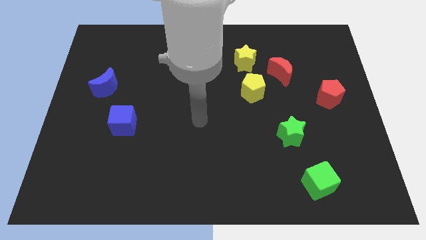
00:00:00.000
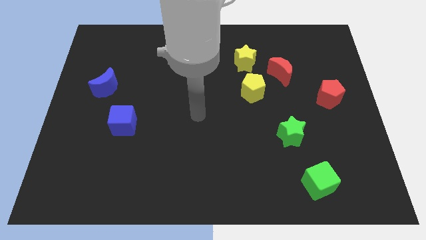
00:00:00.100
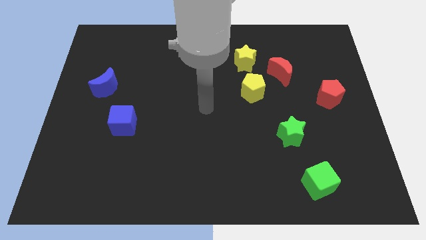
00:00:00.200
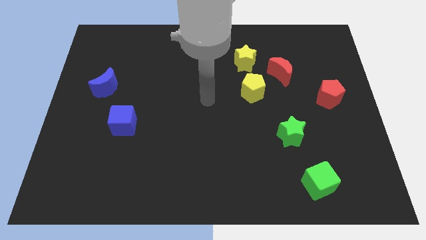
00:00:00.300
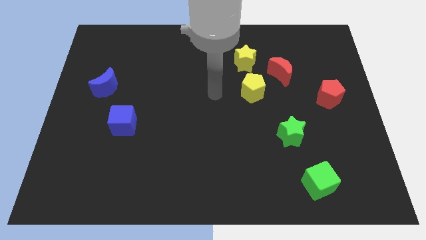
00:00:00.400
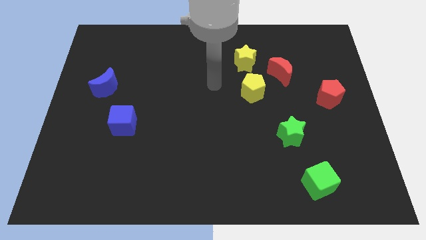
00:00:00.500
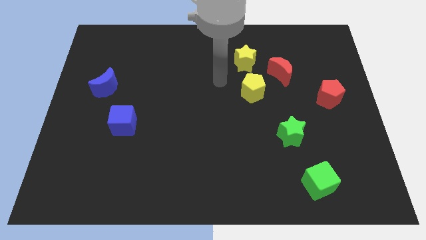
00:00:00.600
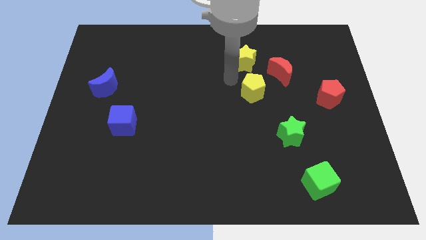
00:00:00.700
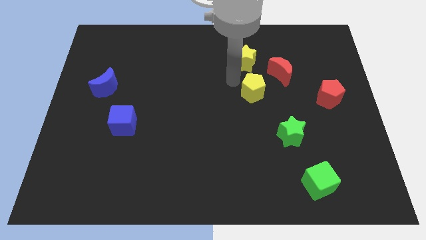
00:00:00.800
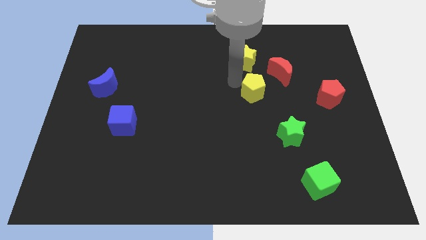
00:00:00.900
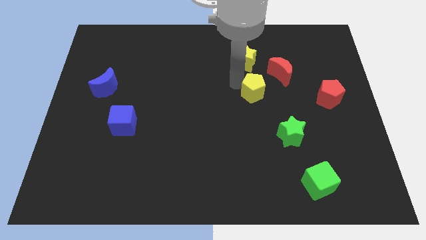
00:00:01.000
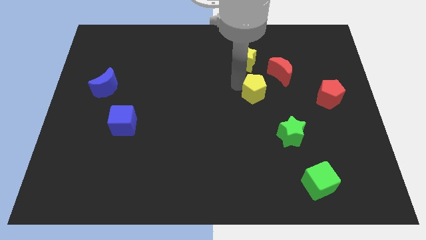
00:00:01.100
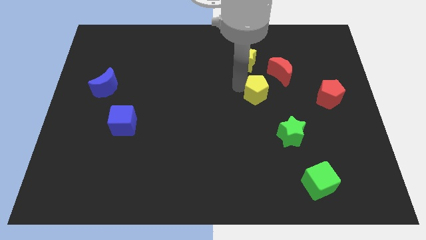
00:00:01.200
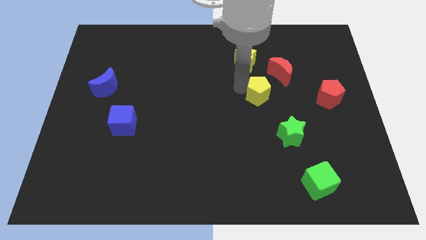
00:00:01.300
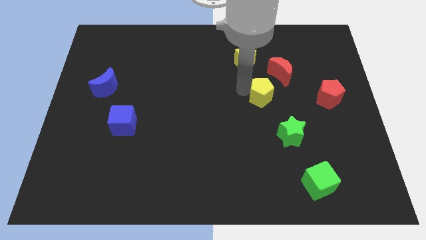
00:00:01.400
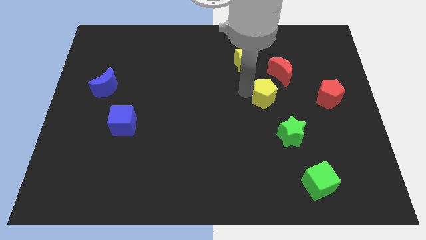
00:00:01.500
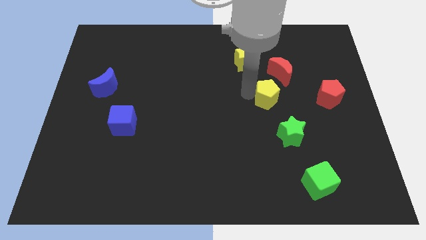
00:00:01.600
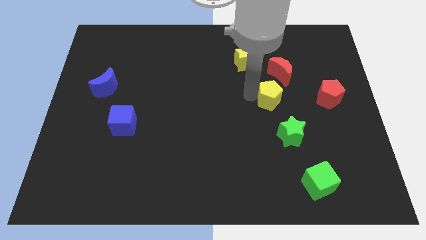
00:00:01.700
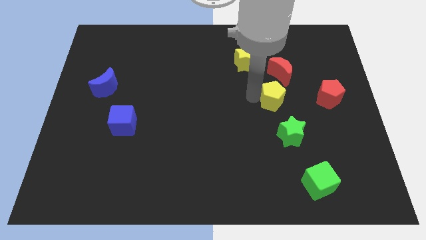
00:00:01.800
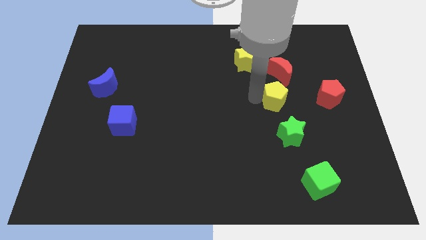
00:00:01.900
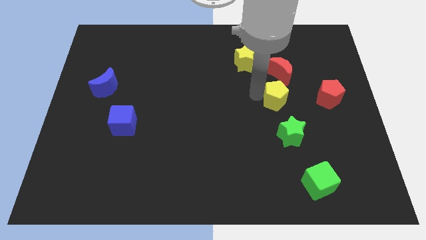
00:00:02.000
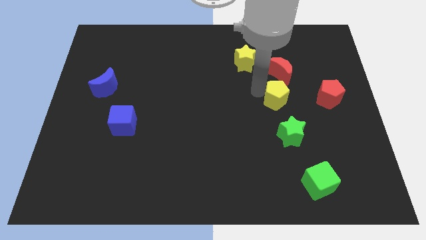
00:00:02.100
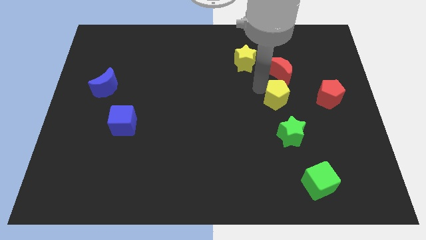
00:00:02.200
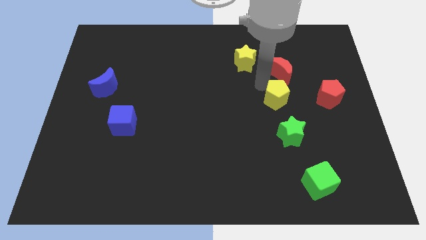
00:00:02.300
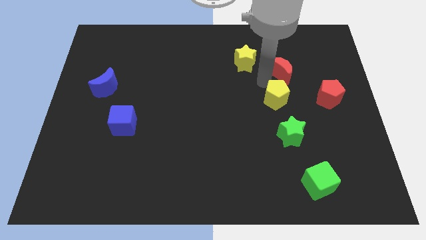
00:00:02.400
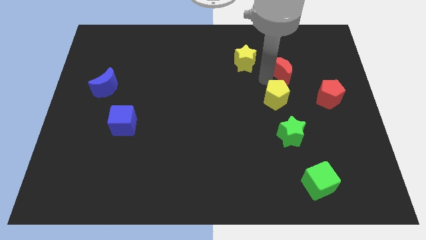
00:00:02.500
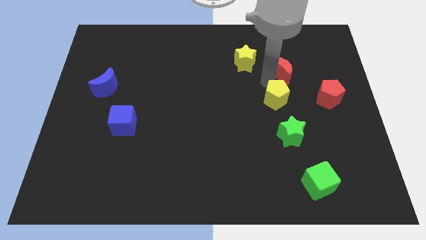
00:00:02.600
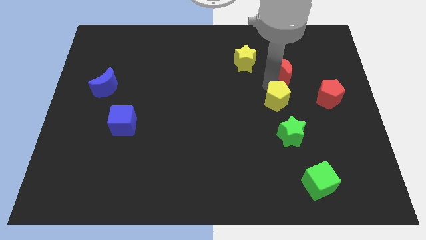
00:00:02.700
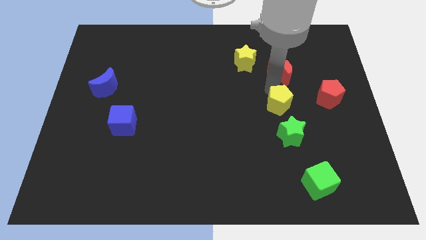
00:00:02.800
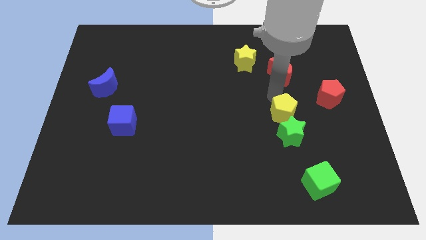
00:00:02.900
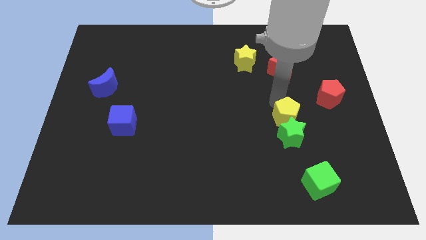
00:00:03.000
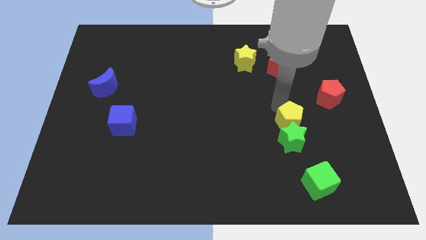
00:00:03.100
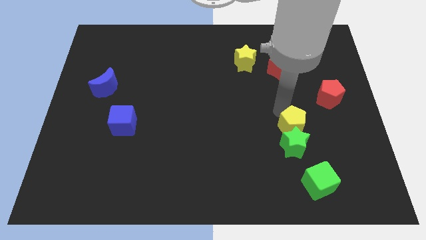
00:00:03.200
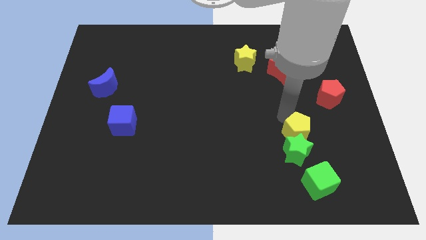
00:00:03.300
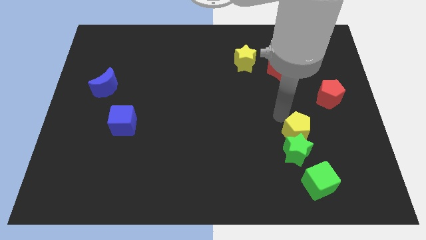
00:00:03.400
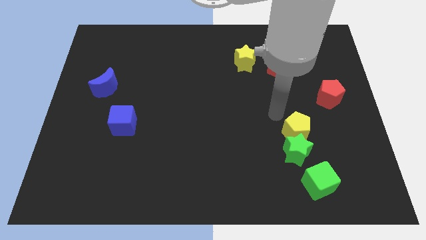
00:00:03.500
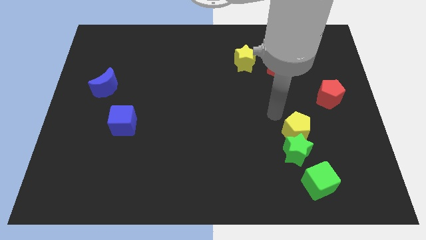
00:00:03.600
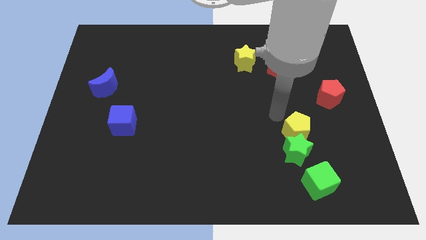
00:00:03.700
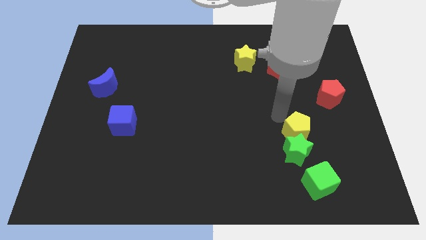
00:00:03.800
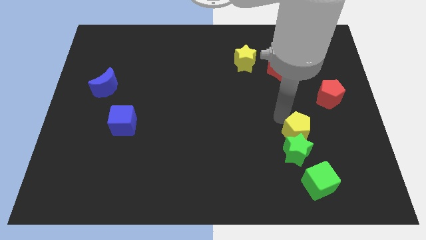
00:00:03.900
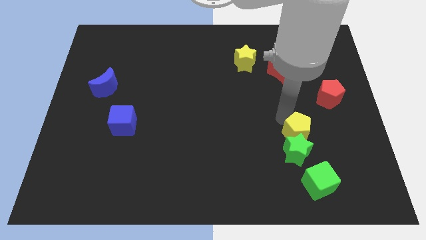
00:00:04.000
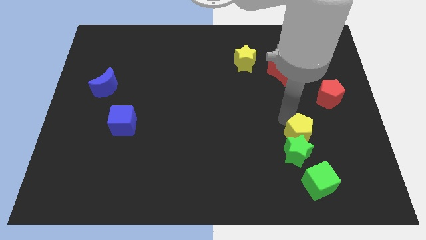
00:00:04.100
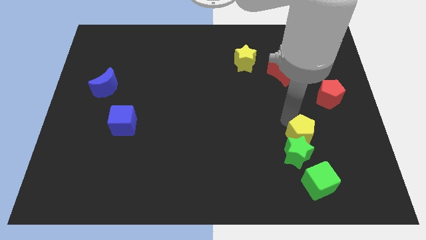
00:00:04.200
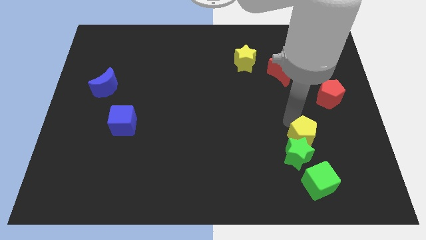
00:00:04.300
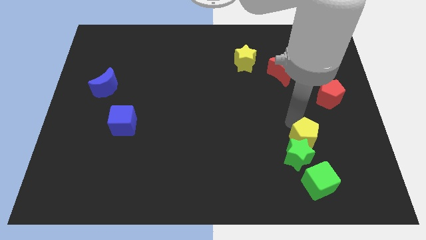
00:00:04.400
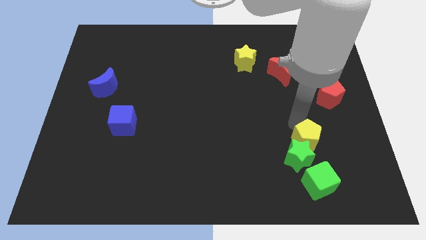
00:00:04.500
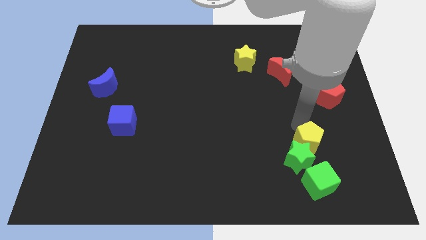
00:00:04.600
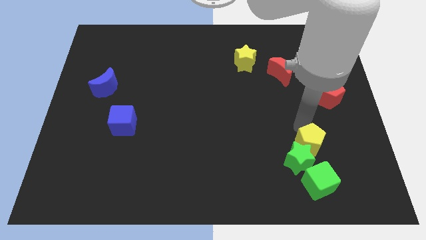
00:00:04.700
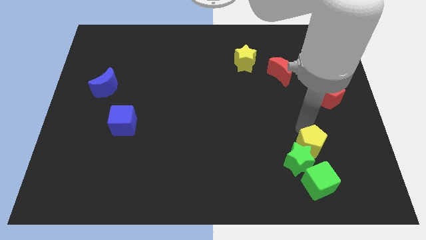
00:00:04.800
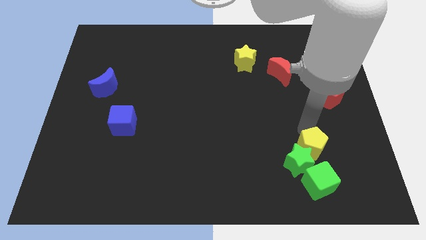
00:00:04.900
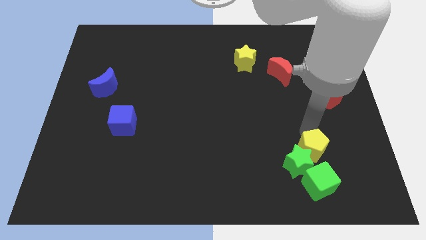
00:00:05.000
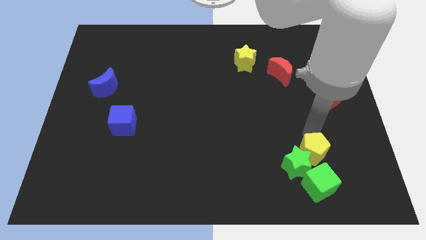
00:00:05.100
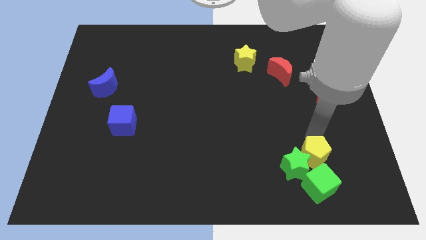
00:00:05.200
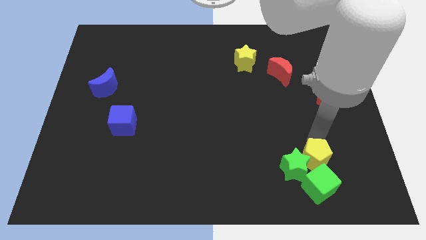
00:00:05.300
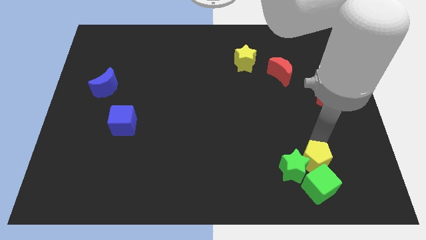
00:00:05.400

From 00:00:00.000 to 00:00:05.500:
push the yellow pentagon close to the green cube
